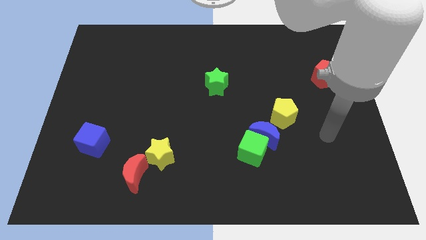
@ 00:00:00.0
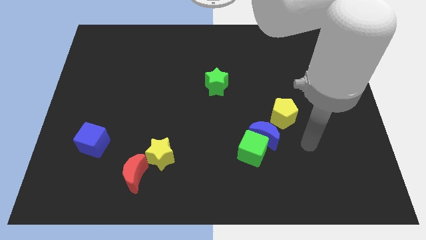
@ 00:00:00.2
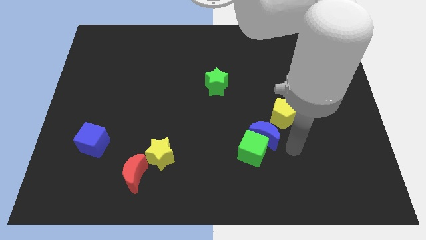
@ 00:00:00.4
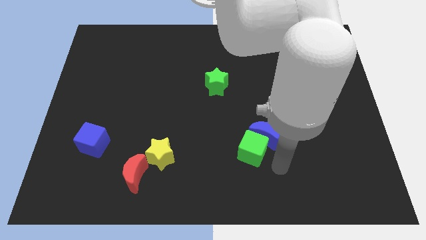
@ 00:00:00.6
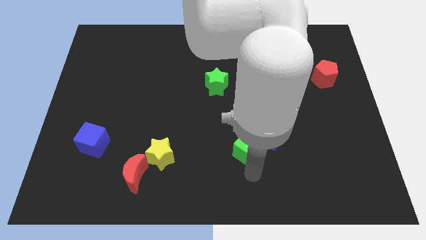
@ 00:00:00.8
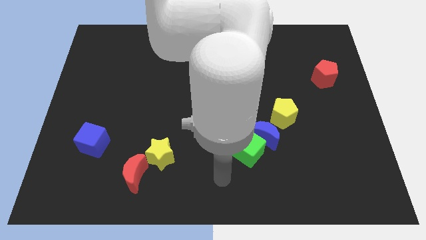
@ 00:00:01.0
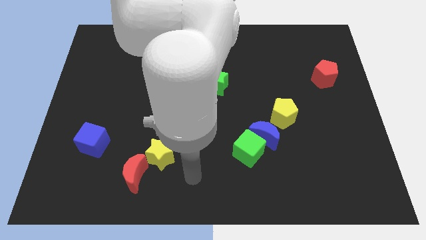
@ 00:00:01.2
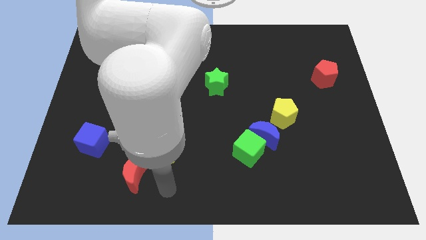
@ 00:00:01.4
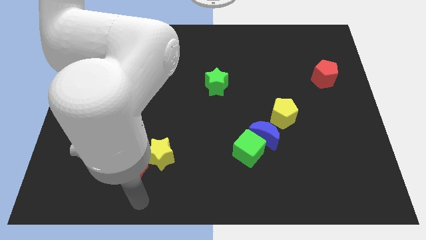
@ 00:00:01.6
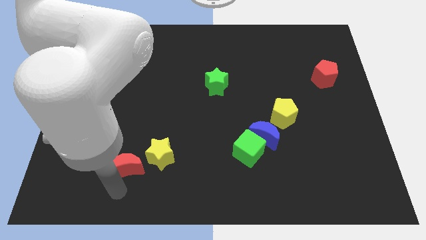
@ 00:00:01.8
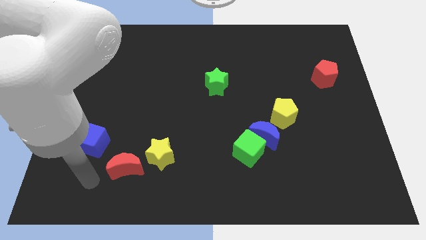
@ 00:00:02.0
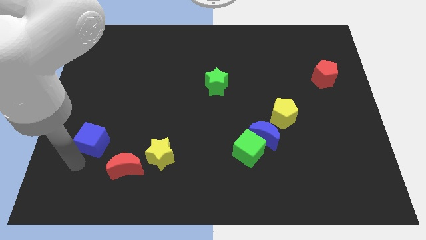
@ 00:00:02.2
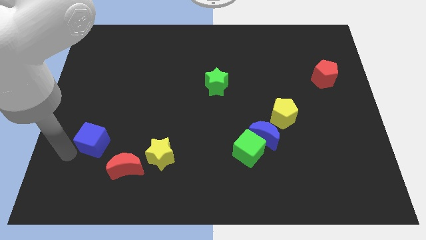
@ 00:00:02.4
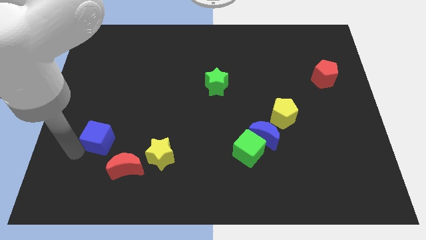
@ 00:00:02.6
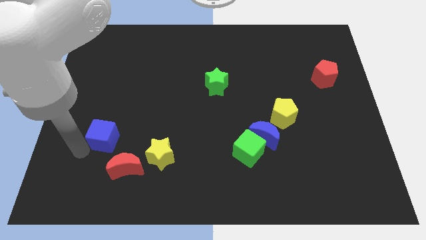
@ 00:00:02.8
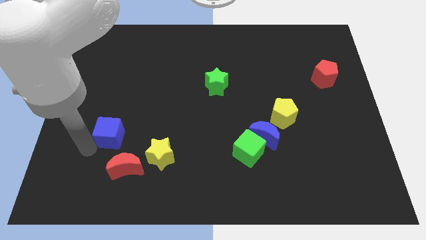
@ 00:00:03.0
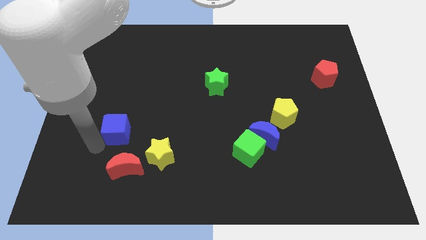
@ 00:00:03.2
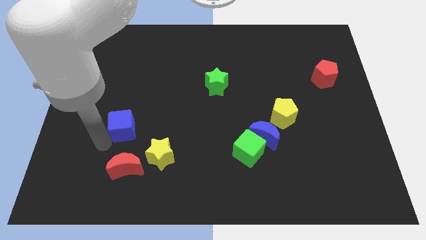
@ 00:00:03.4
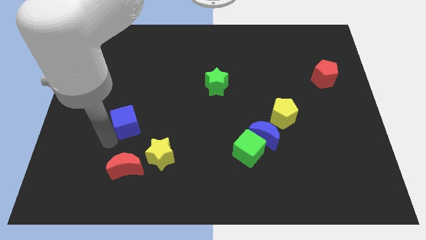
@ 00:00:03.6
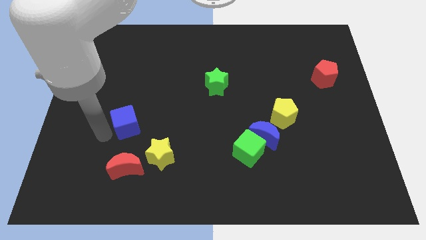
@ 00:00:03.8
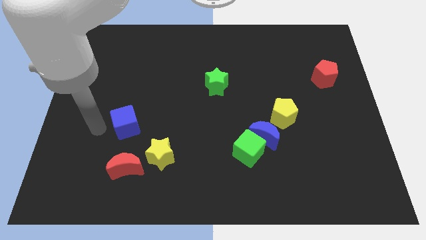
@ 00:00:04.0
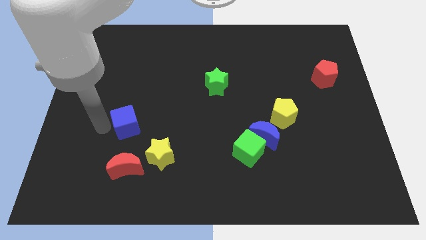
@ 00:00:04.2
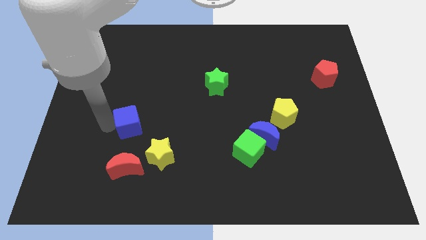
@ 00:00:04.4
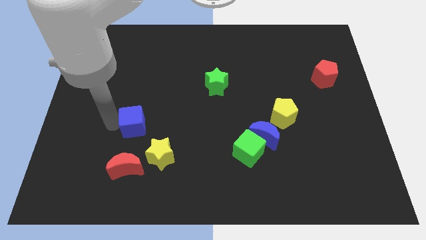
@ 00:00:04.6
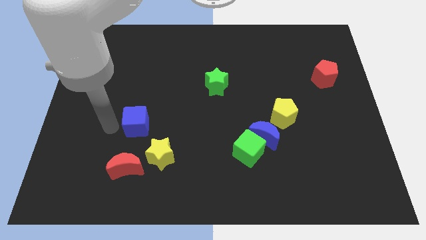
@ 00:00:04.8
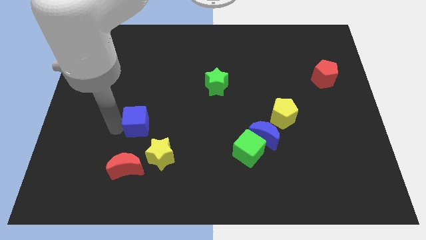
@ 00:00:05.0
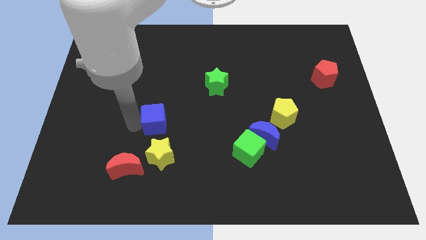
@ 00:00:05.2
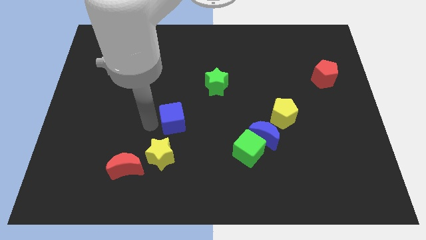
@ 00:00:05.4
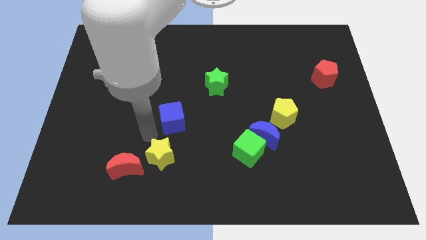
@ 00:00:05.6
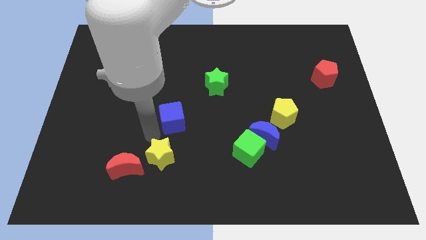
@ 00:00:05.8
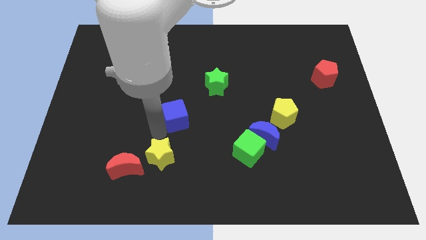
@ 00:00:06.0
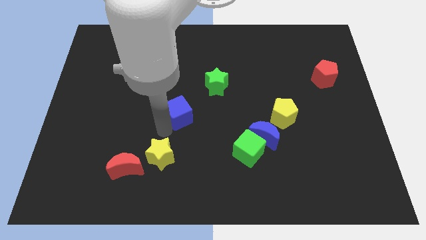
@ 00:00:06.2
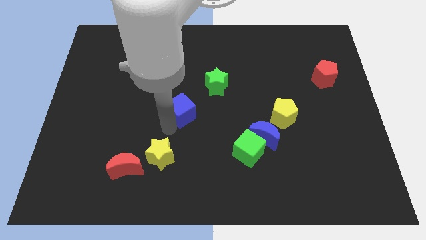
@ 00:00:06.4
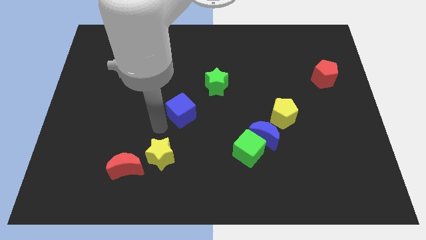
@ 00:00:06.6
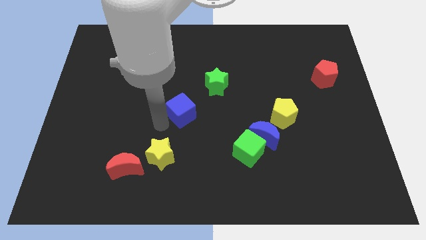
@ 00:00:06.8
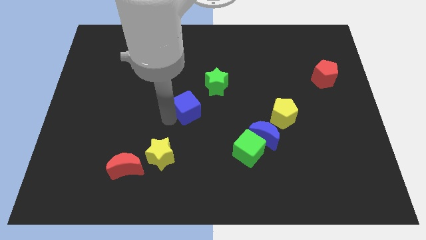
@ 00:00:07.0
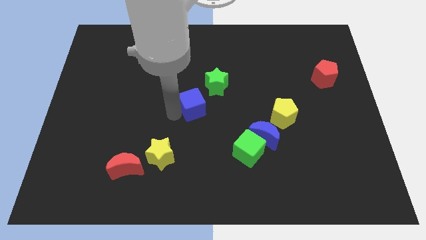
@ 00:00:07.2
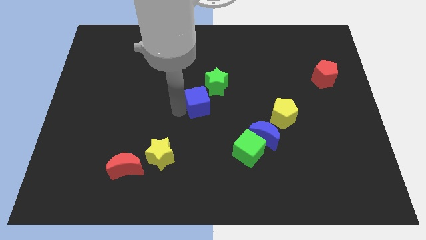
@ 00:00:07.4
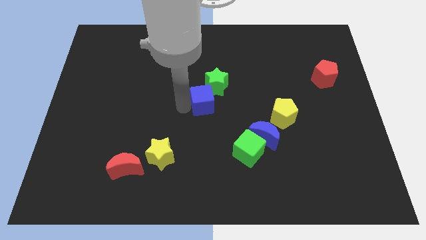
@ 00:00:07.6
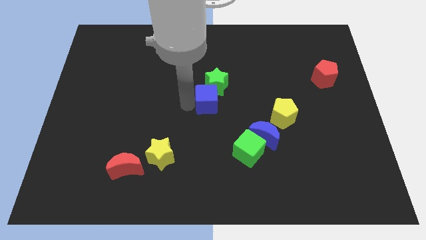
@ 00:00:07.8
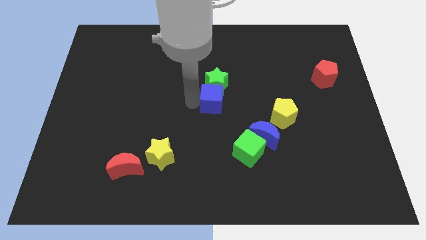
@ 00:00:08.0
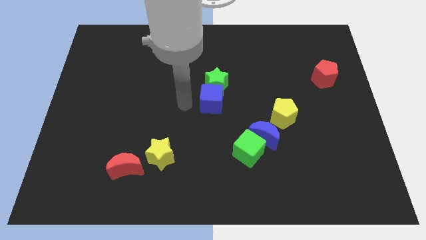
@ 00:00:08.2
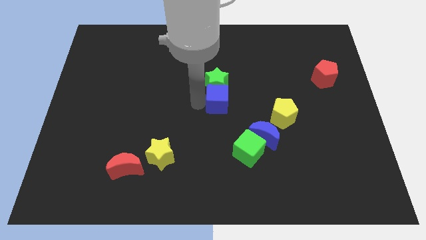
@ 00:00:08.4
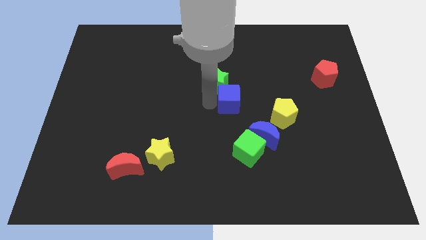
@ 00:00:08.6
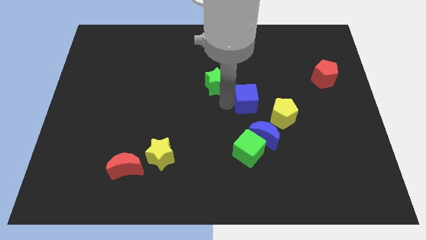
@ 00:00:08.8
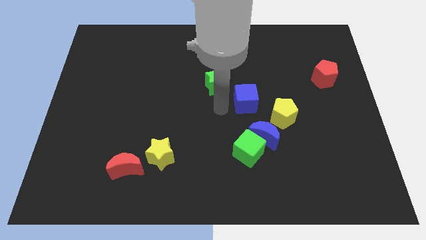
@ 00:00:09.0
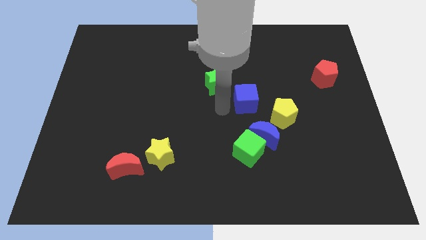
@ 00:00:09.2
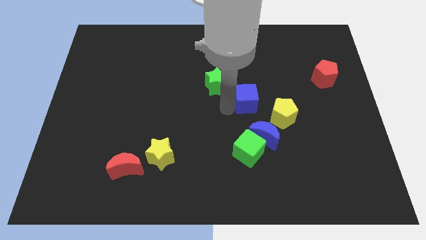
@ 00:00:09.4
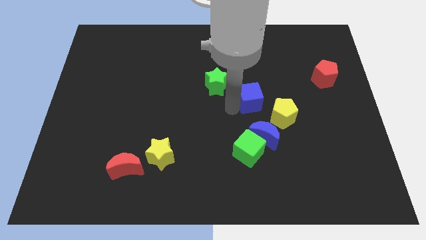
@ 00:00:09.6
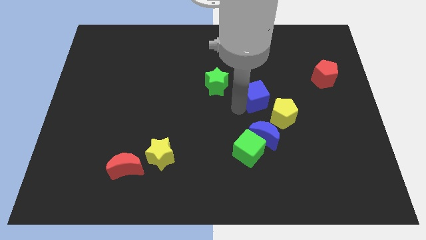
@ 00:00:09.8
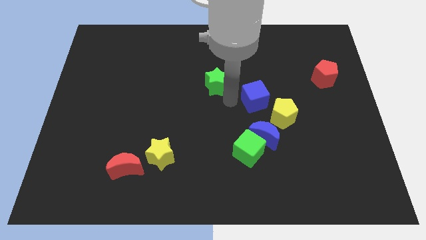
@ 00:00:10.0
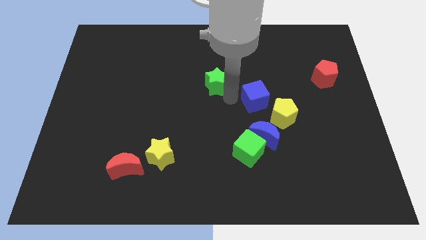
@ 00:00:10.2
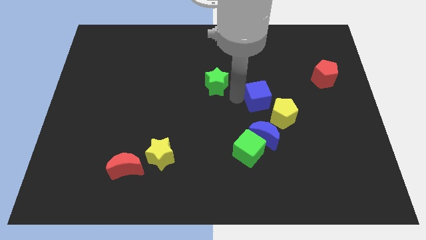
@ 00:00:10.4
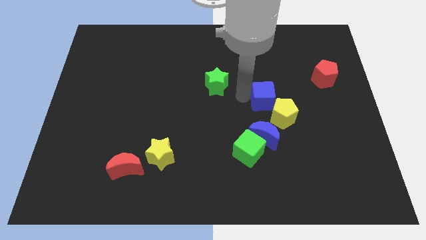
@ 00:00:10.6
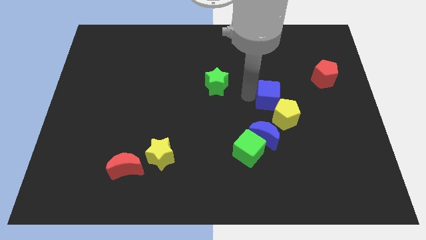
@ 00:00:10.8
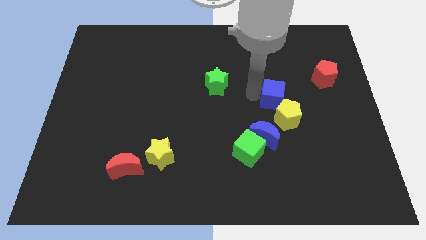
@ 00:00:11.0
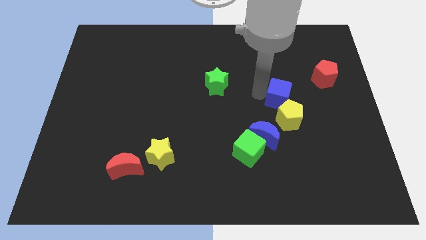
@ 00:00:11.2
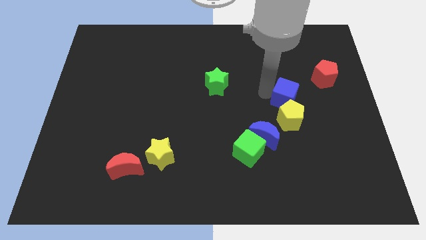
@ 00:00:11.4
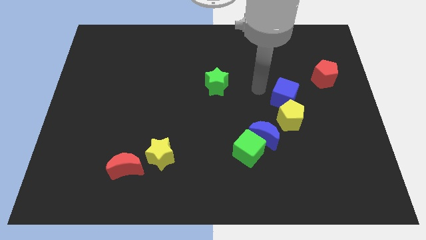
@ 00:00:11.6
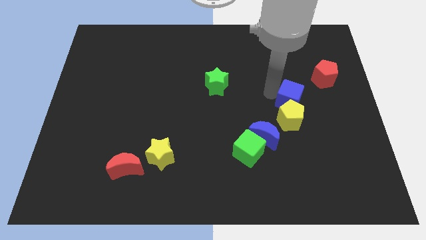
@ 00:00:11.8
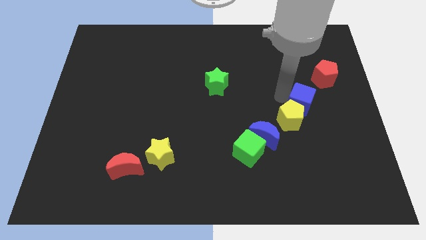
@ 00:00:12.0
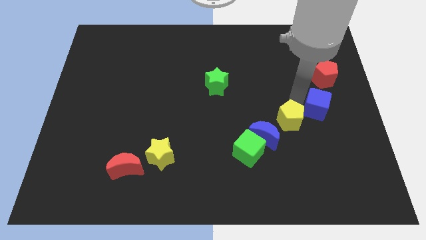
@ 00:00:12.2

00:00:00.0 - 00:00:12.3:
put the blue cube below the red pentagon

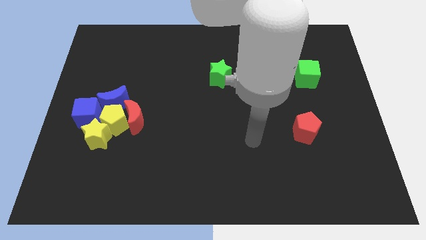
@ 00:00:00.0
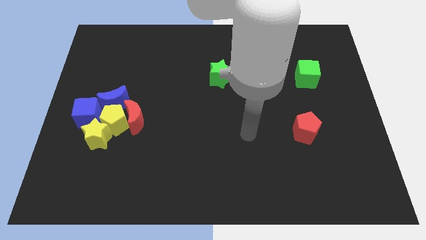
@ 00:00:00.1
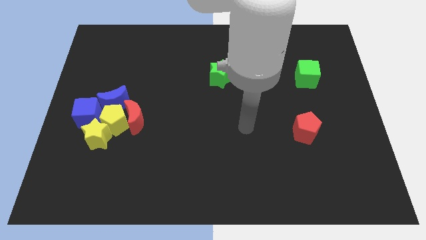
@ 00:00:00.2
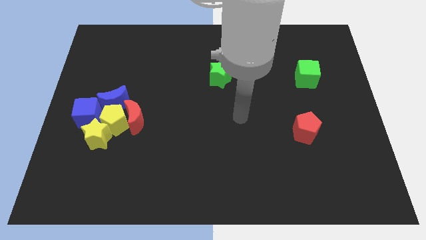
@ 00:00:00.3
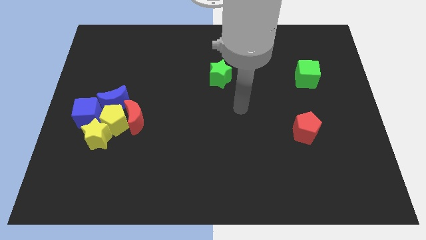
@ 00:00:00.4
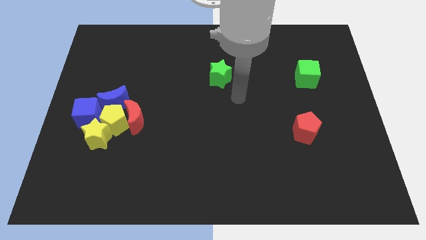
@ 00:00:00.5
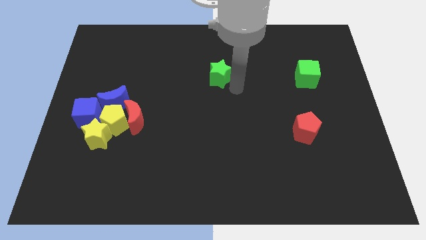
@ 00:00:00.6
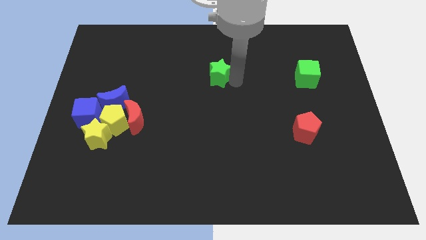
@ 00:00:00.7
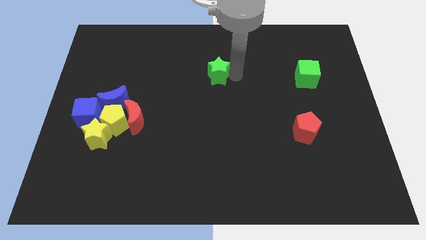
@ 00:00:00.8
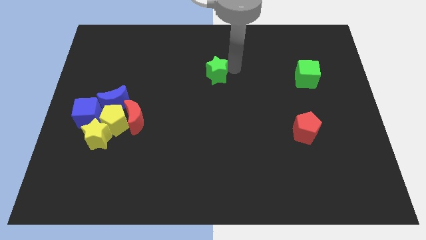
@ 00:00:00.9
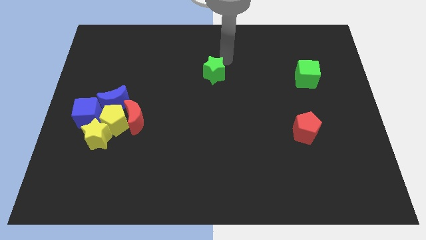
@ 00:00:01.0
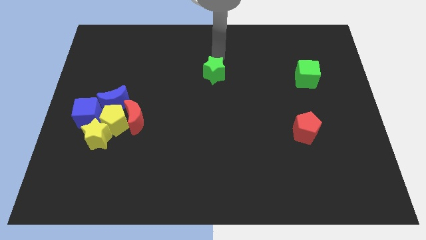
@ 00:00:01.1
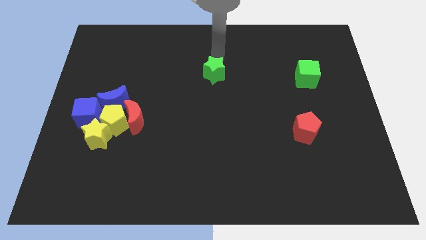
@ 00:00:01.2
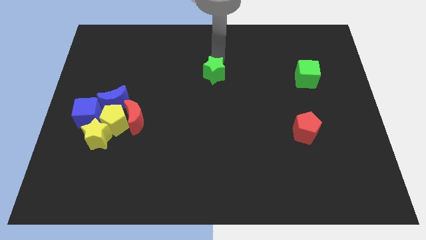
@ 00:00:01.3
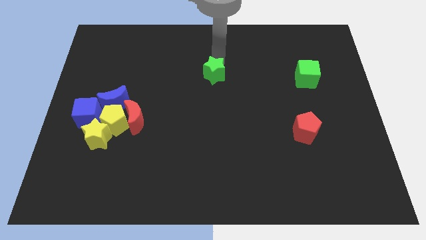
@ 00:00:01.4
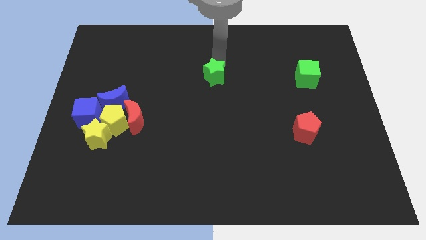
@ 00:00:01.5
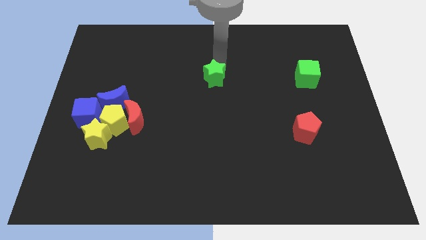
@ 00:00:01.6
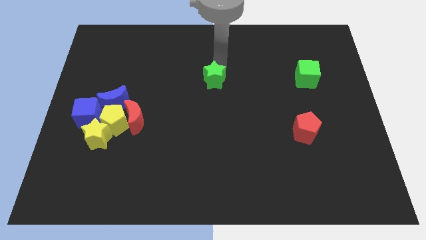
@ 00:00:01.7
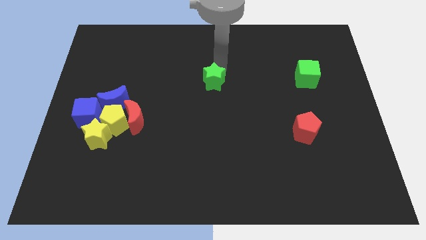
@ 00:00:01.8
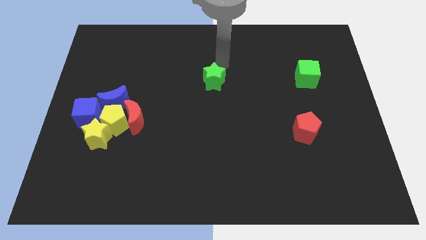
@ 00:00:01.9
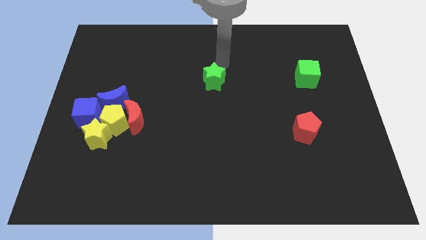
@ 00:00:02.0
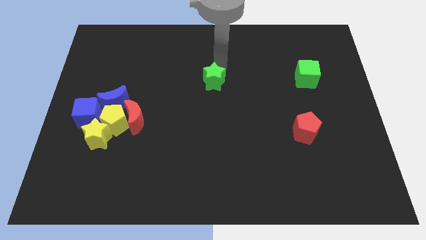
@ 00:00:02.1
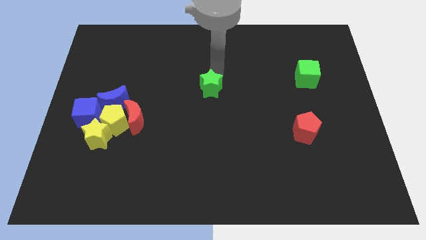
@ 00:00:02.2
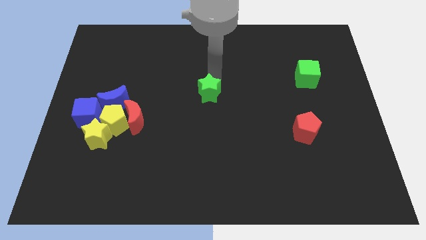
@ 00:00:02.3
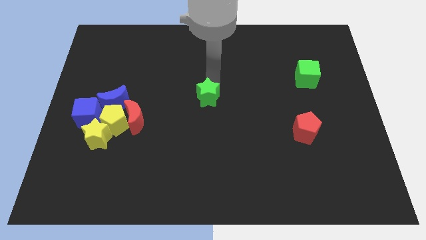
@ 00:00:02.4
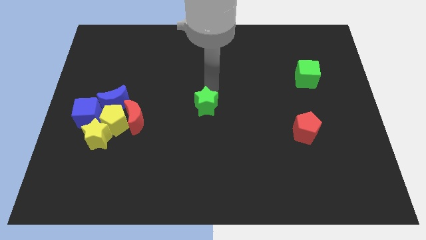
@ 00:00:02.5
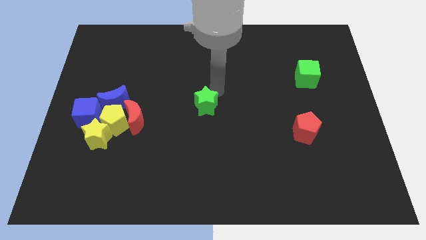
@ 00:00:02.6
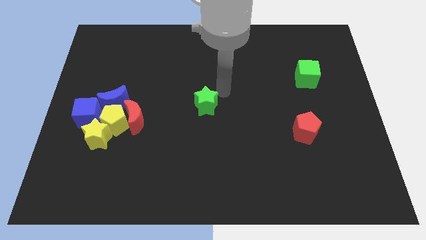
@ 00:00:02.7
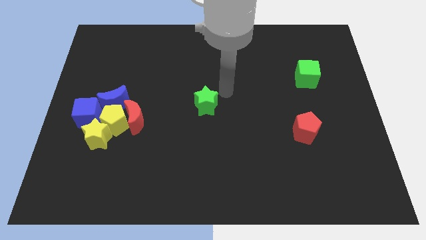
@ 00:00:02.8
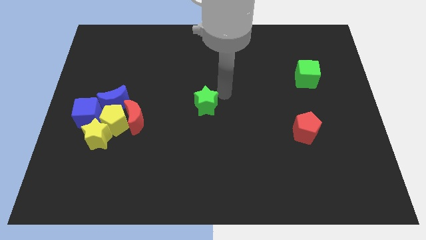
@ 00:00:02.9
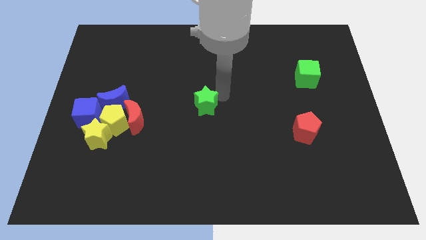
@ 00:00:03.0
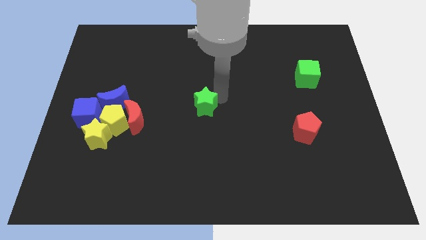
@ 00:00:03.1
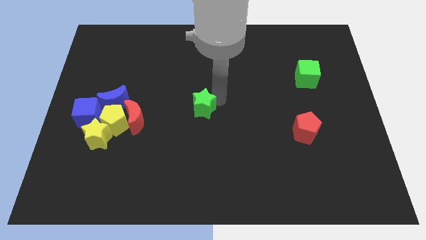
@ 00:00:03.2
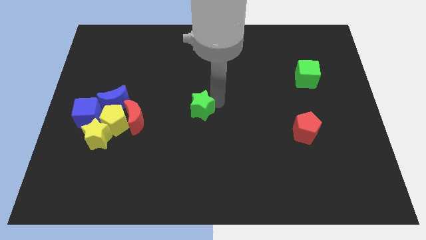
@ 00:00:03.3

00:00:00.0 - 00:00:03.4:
put the green star right of the red moon
